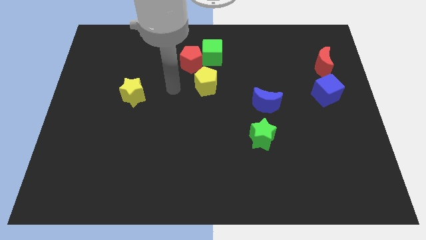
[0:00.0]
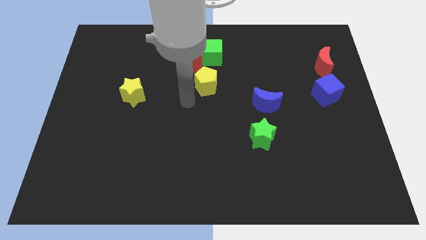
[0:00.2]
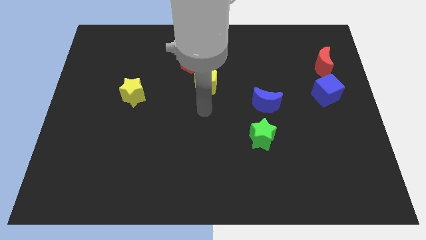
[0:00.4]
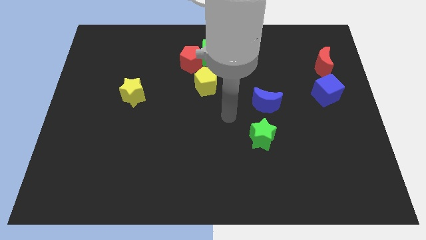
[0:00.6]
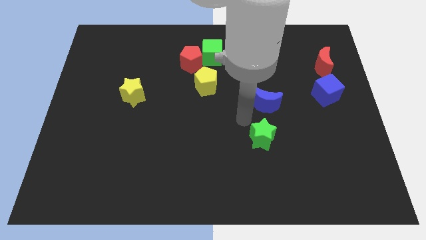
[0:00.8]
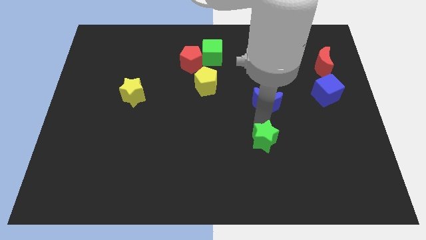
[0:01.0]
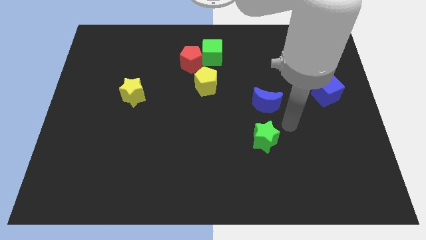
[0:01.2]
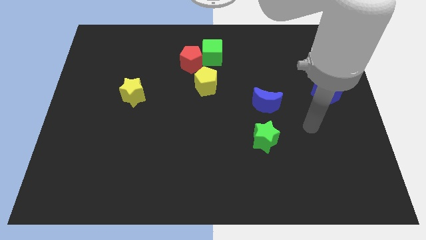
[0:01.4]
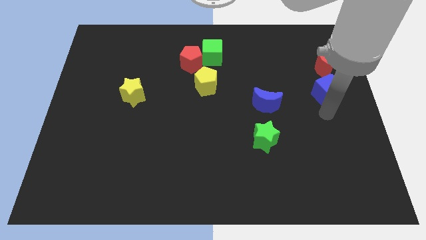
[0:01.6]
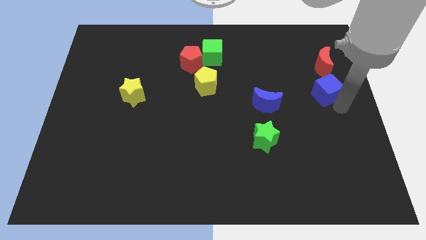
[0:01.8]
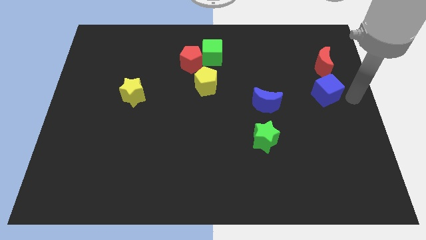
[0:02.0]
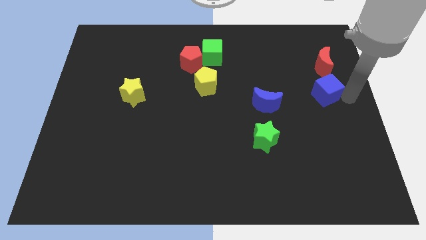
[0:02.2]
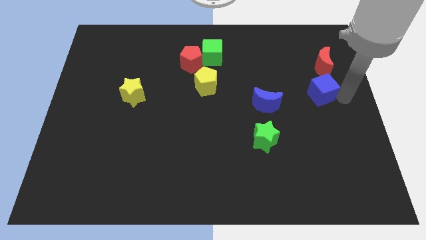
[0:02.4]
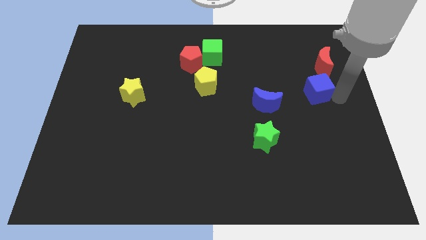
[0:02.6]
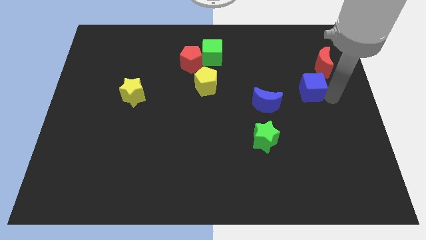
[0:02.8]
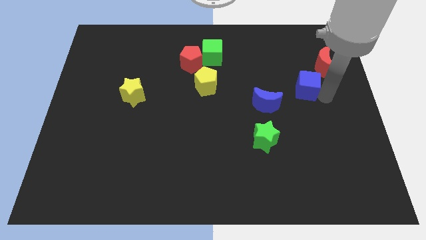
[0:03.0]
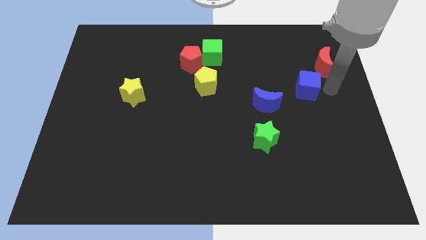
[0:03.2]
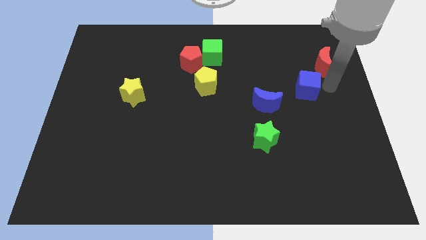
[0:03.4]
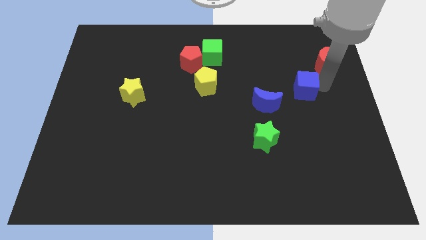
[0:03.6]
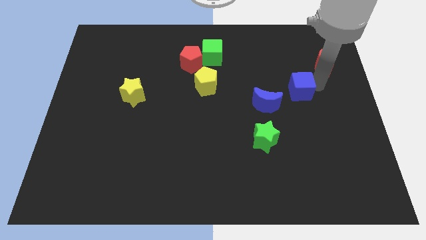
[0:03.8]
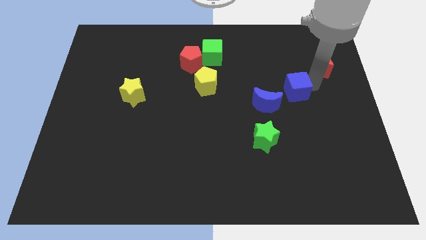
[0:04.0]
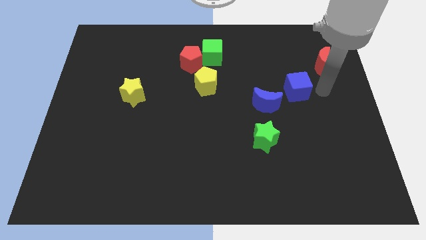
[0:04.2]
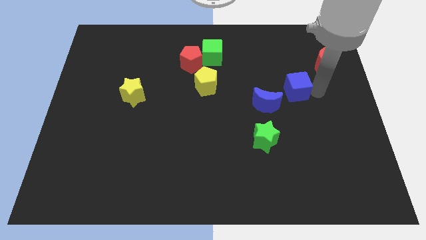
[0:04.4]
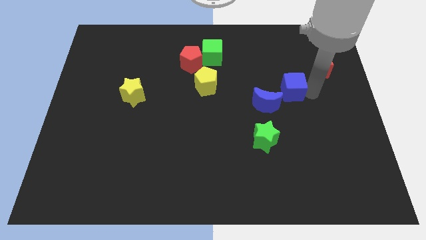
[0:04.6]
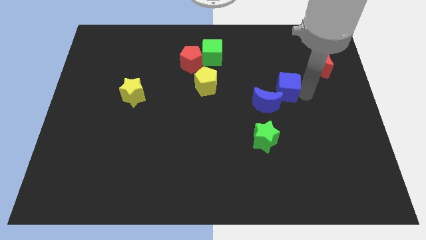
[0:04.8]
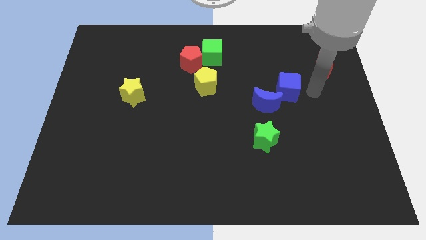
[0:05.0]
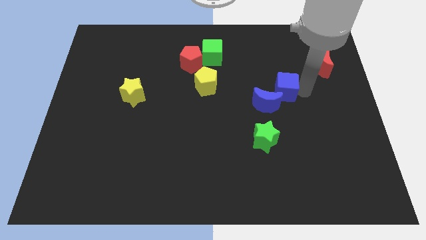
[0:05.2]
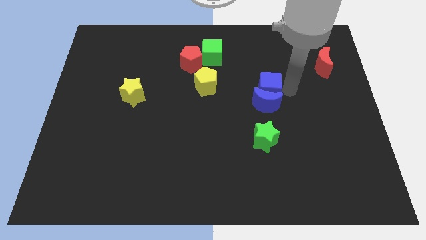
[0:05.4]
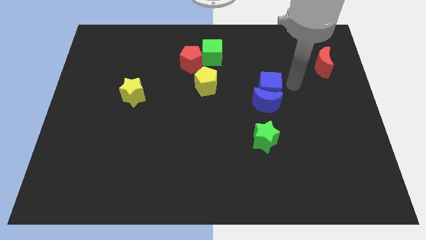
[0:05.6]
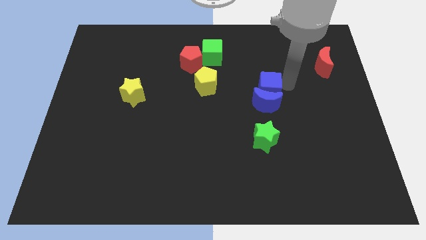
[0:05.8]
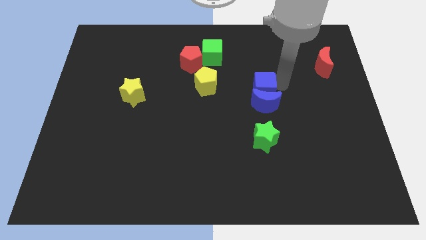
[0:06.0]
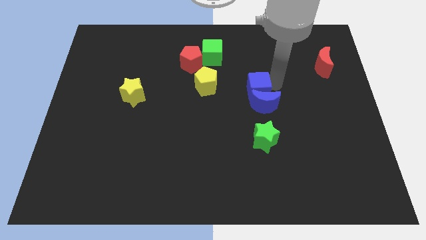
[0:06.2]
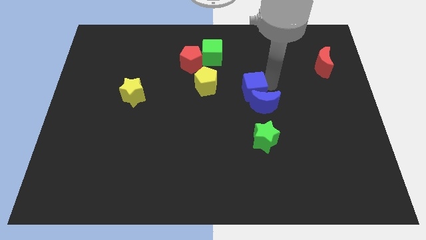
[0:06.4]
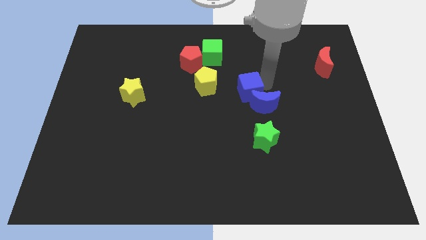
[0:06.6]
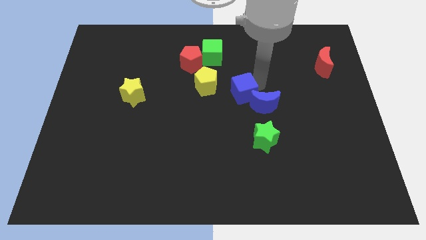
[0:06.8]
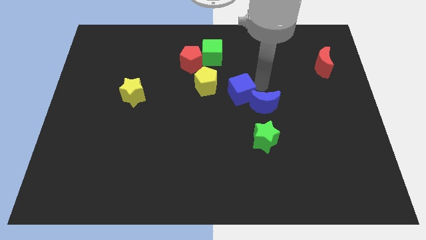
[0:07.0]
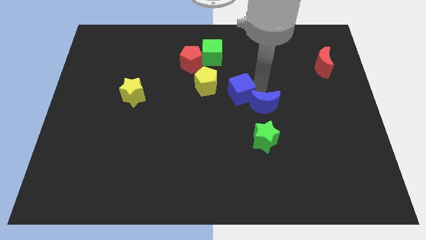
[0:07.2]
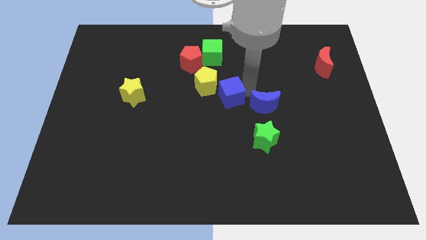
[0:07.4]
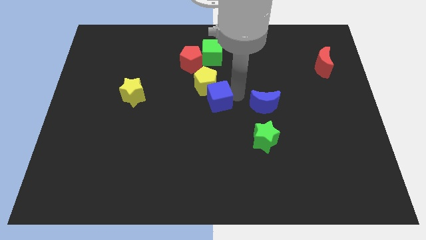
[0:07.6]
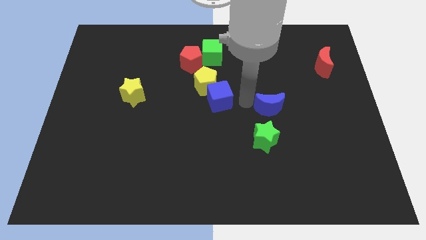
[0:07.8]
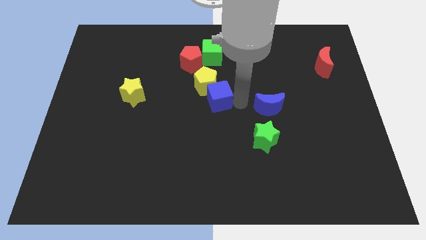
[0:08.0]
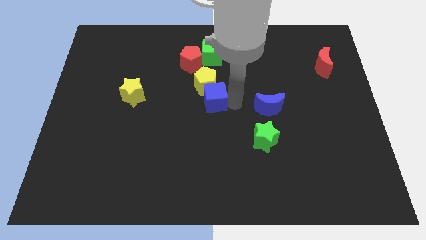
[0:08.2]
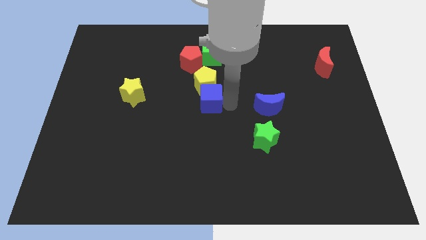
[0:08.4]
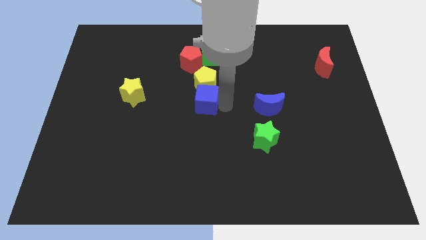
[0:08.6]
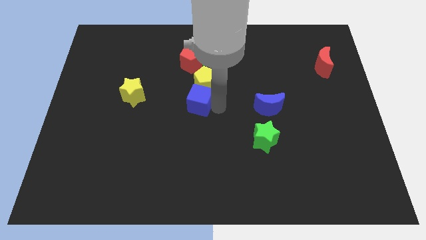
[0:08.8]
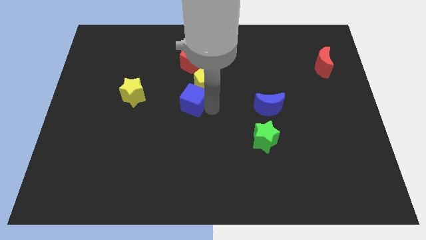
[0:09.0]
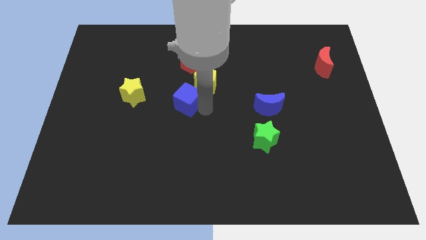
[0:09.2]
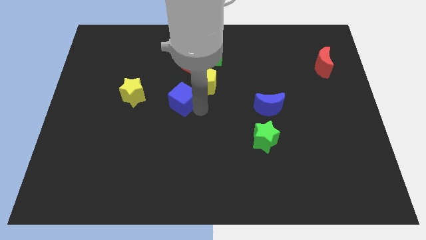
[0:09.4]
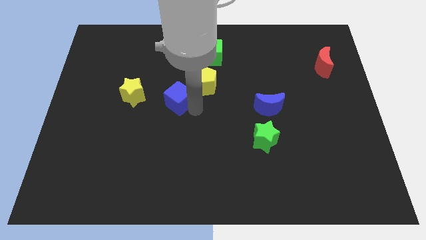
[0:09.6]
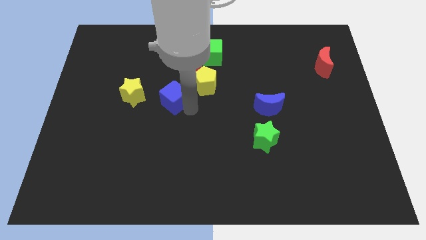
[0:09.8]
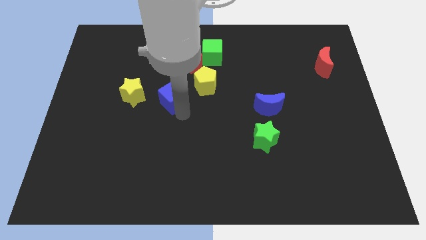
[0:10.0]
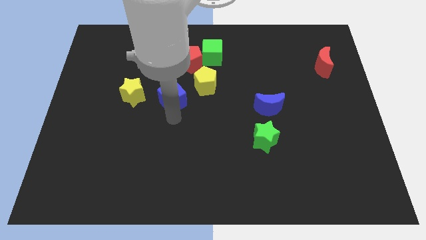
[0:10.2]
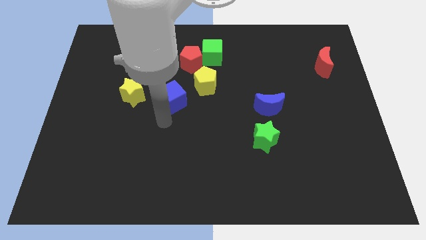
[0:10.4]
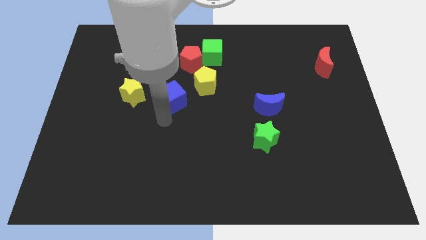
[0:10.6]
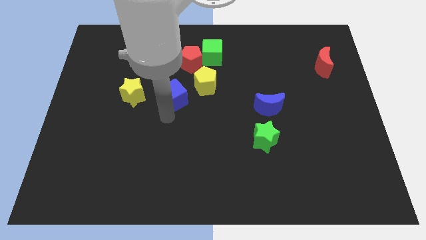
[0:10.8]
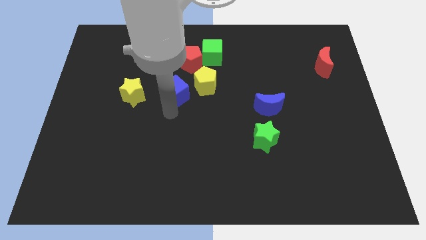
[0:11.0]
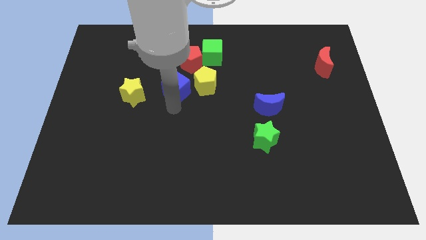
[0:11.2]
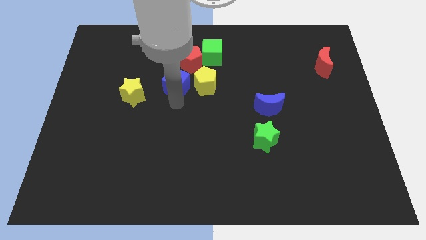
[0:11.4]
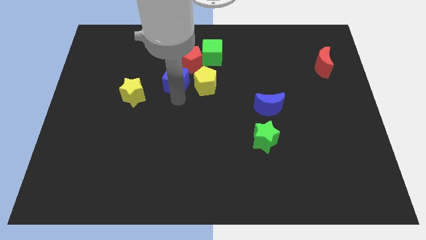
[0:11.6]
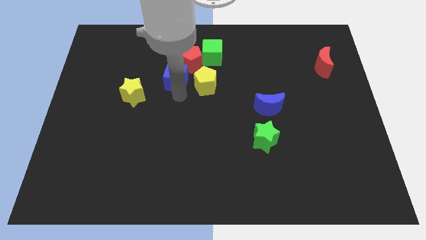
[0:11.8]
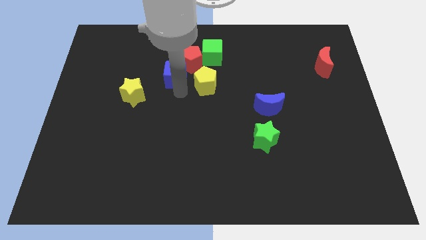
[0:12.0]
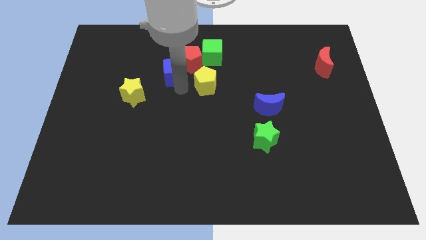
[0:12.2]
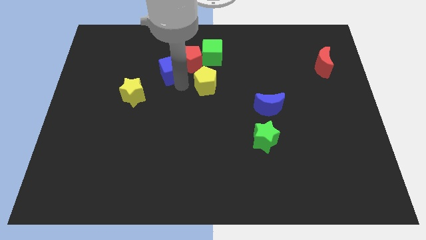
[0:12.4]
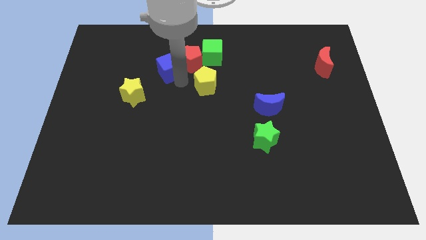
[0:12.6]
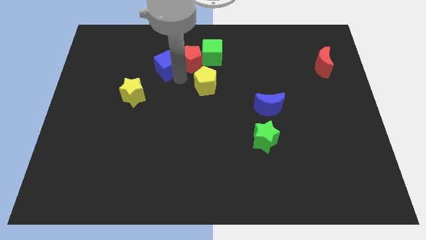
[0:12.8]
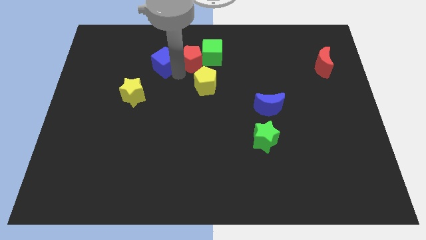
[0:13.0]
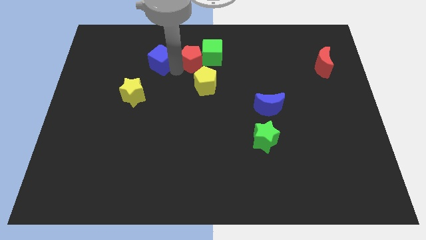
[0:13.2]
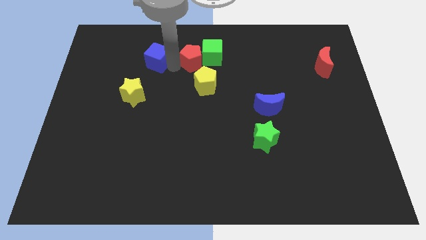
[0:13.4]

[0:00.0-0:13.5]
move the blue cube above the yellow star
